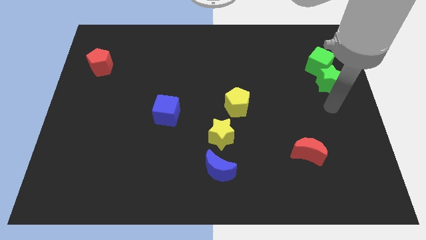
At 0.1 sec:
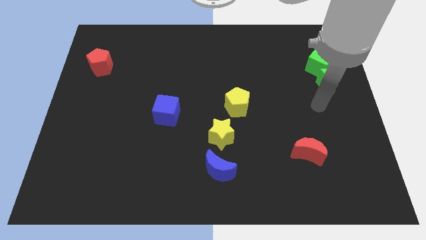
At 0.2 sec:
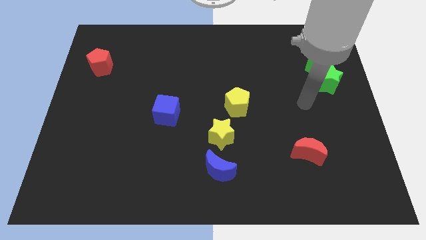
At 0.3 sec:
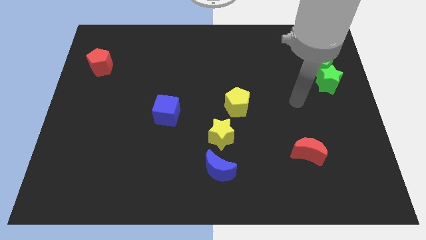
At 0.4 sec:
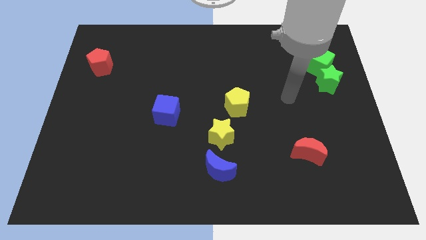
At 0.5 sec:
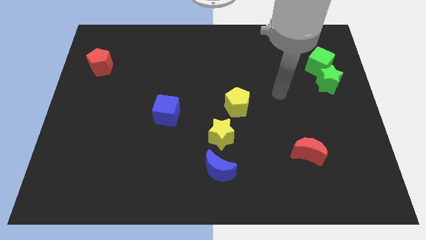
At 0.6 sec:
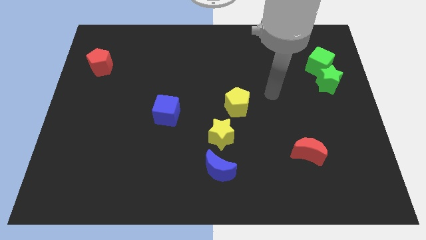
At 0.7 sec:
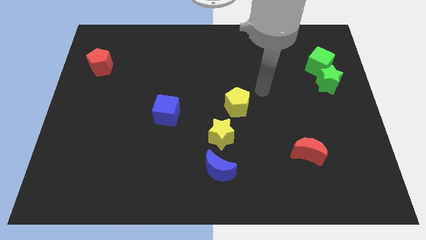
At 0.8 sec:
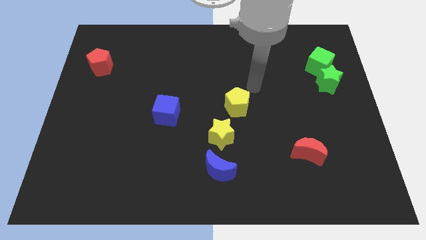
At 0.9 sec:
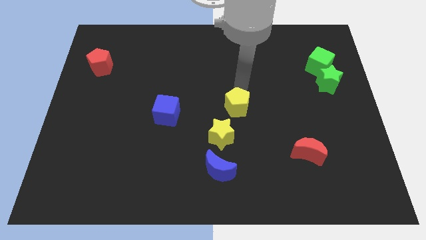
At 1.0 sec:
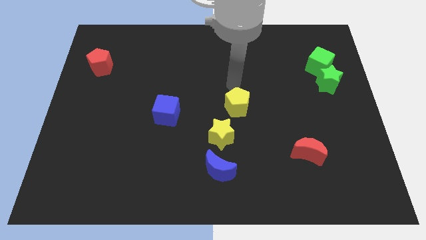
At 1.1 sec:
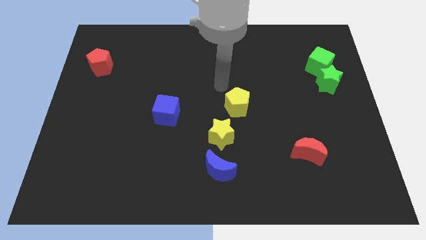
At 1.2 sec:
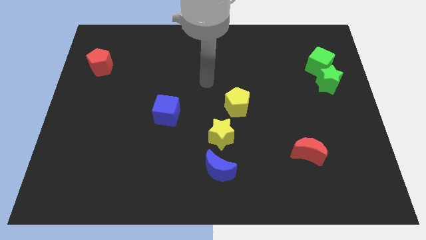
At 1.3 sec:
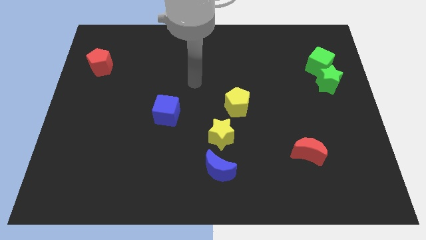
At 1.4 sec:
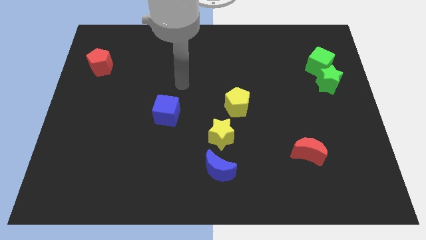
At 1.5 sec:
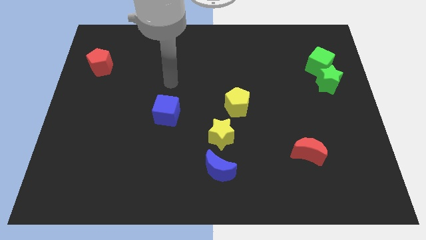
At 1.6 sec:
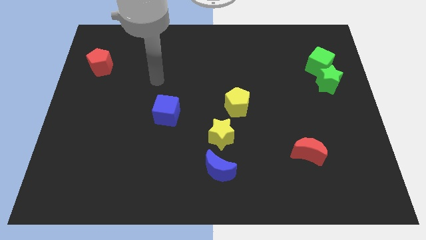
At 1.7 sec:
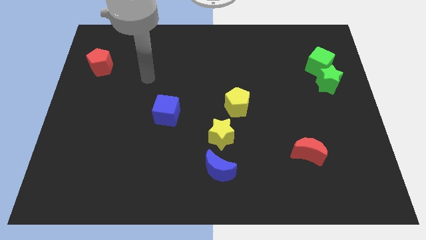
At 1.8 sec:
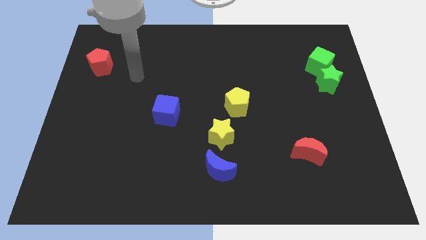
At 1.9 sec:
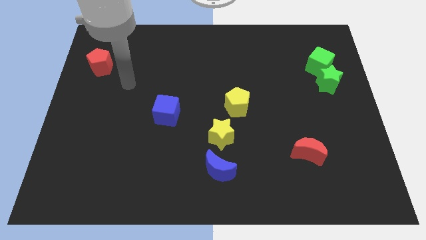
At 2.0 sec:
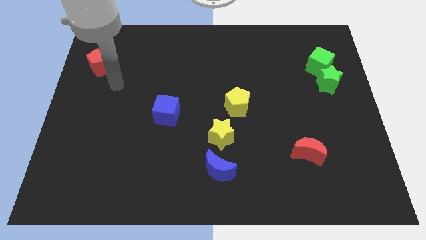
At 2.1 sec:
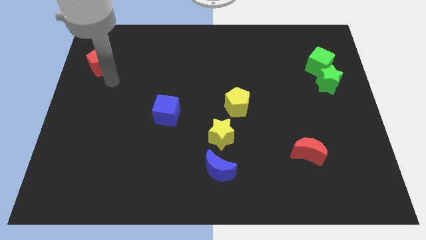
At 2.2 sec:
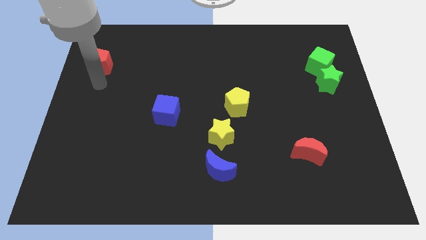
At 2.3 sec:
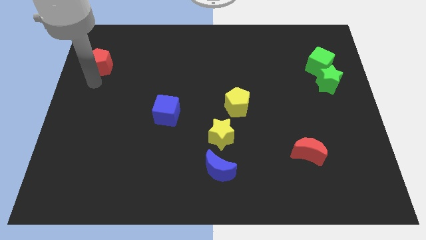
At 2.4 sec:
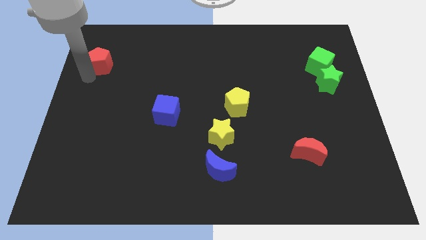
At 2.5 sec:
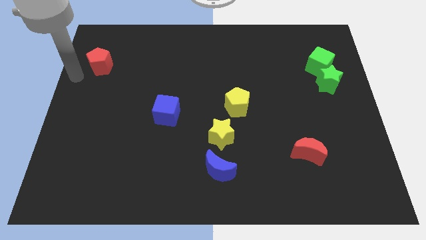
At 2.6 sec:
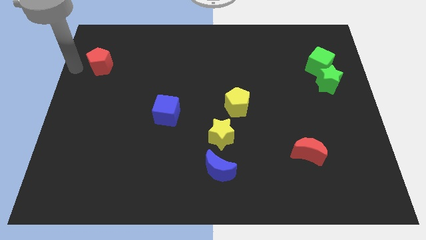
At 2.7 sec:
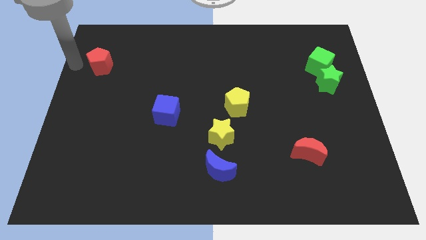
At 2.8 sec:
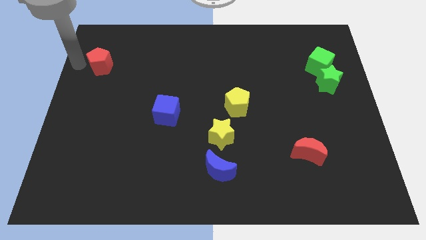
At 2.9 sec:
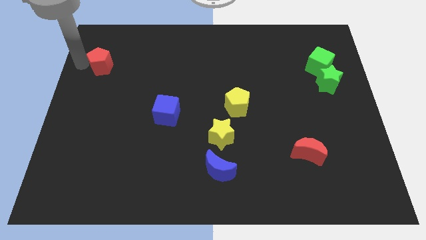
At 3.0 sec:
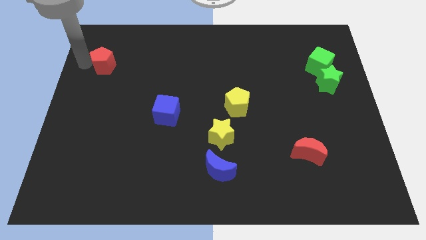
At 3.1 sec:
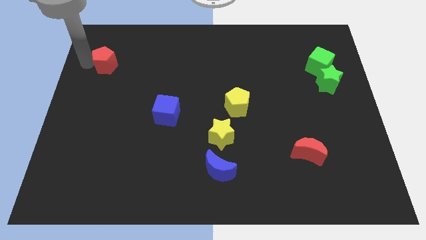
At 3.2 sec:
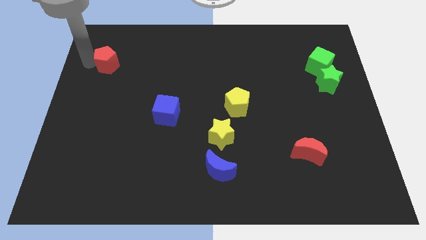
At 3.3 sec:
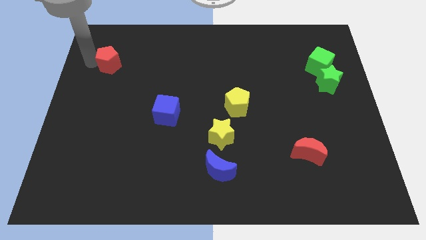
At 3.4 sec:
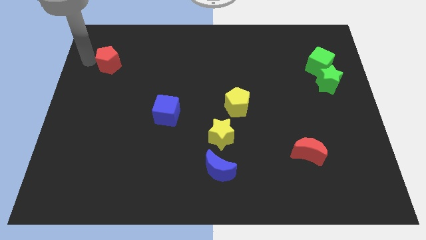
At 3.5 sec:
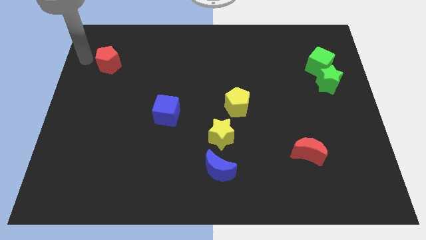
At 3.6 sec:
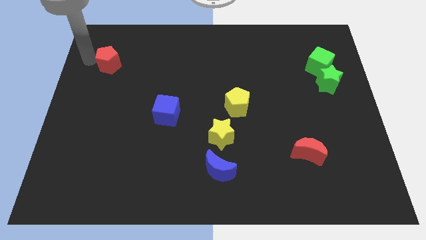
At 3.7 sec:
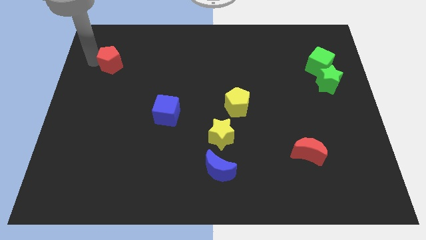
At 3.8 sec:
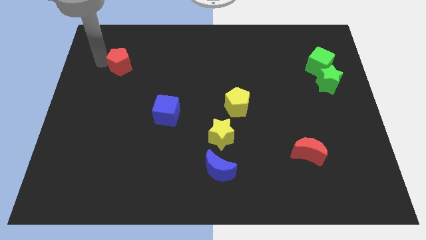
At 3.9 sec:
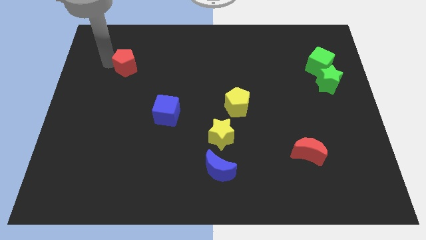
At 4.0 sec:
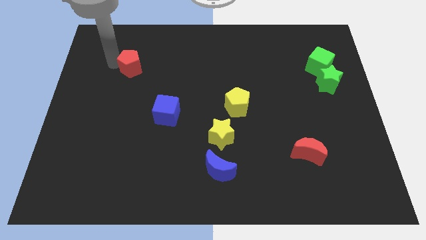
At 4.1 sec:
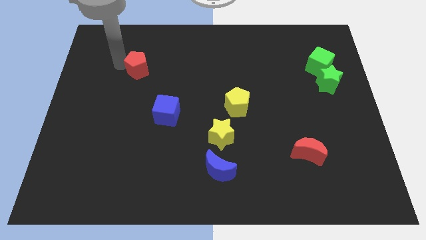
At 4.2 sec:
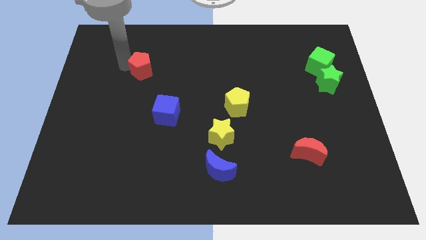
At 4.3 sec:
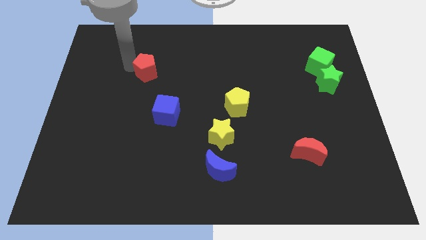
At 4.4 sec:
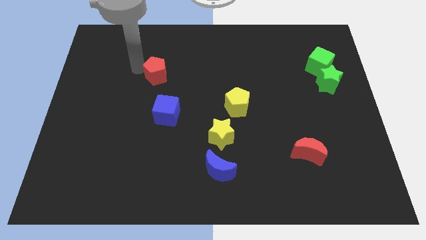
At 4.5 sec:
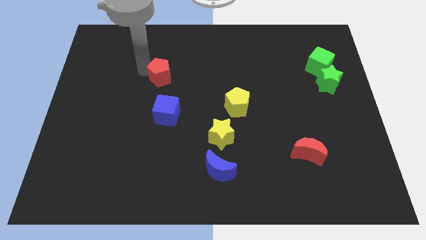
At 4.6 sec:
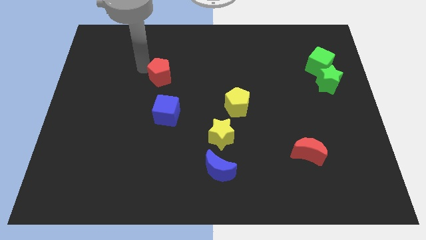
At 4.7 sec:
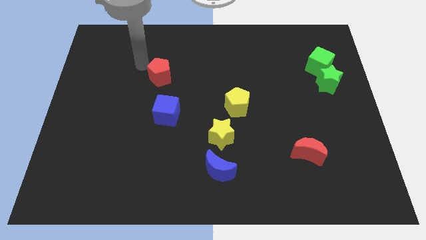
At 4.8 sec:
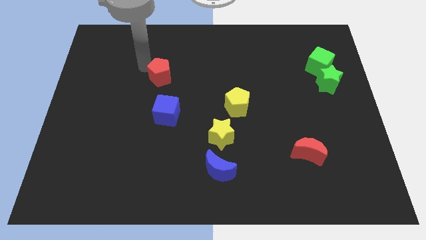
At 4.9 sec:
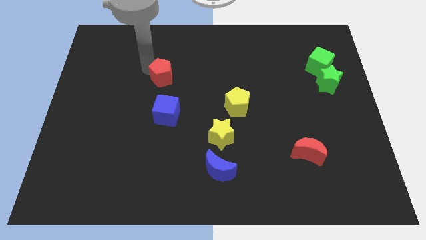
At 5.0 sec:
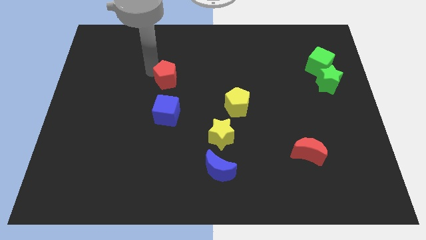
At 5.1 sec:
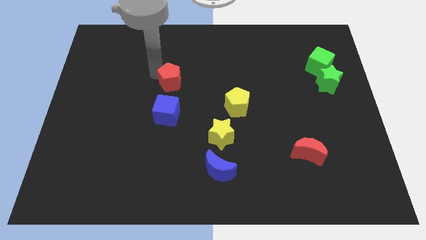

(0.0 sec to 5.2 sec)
push the red pentagon to the center of the board

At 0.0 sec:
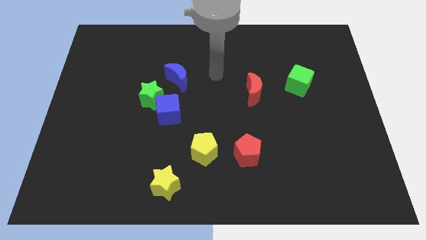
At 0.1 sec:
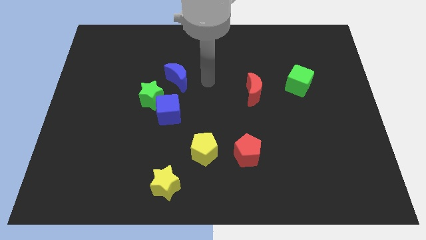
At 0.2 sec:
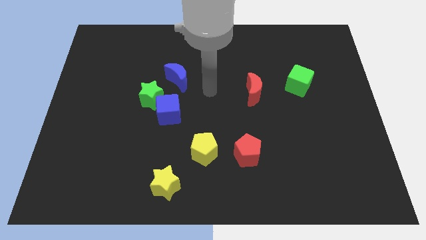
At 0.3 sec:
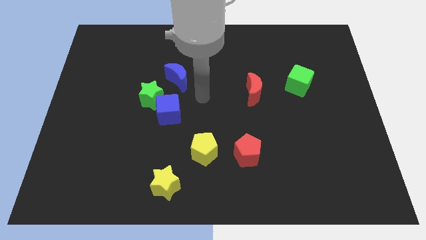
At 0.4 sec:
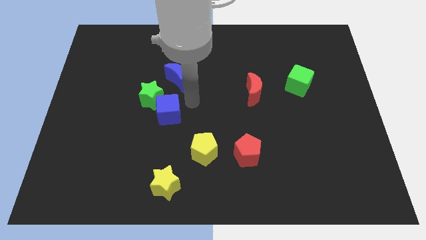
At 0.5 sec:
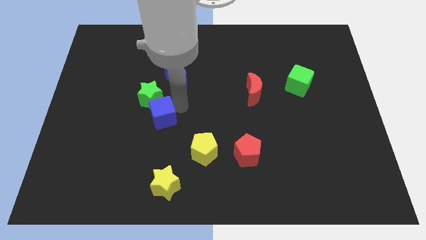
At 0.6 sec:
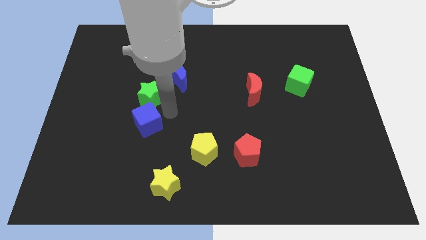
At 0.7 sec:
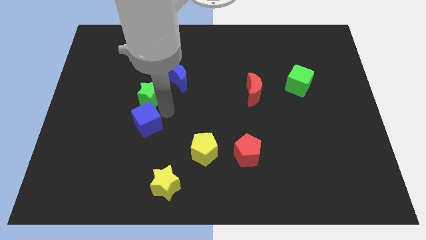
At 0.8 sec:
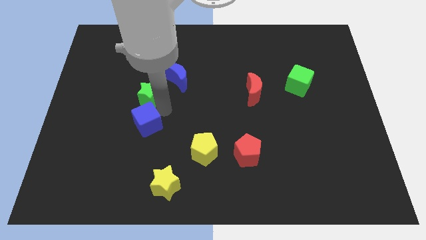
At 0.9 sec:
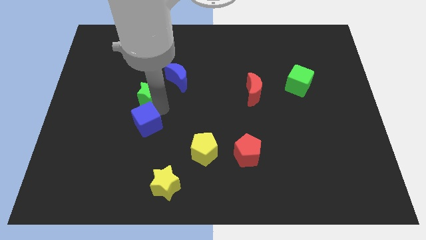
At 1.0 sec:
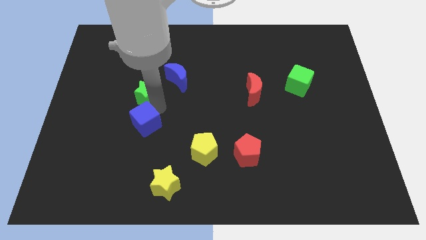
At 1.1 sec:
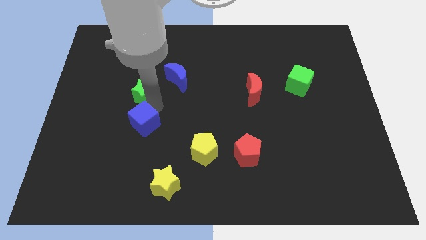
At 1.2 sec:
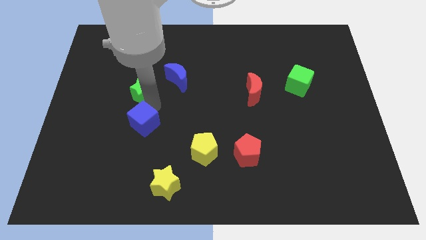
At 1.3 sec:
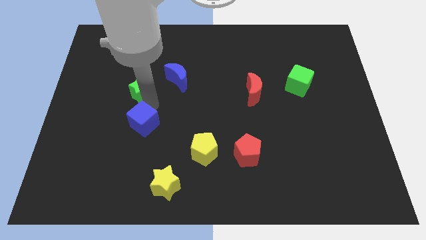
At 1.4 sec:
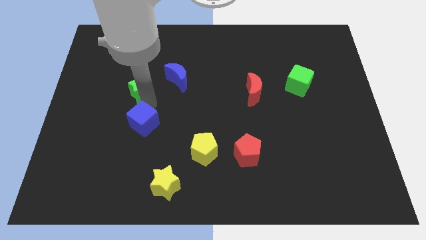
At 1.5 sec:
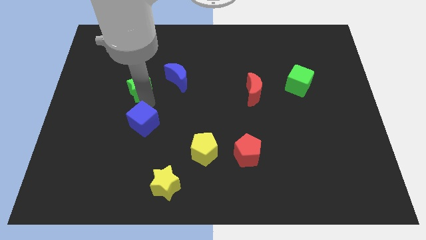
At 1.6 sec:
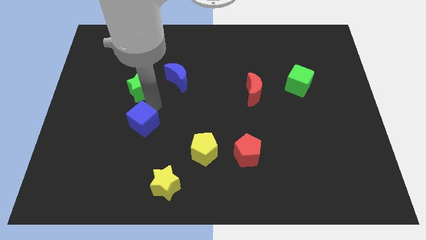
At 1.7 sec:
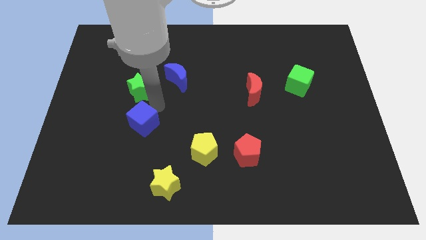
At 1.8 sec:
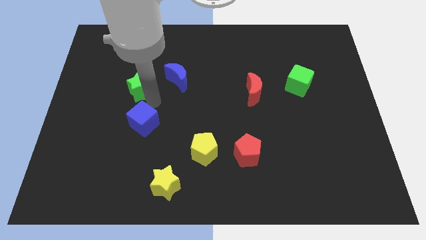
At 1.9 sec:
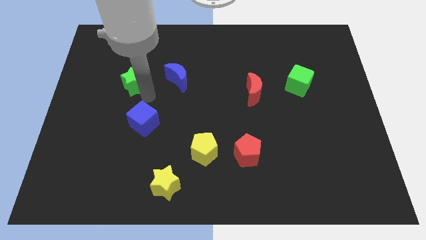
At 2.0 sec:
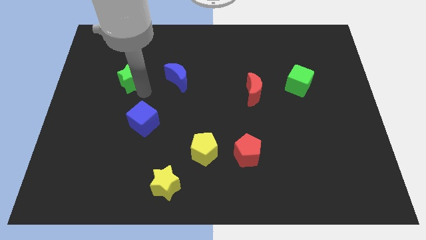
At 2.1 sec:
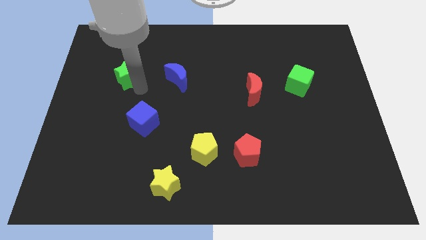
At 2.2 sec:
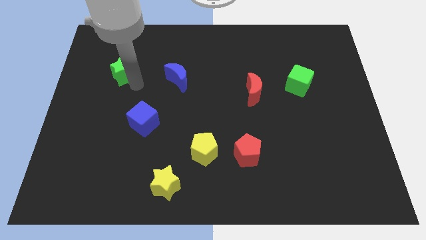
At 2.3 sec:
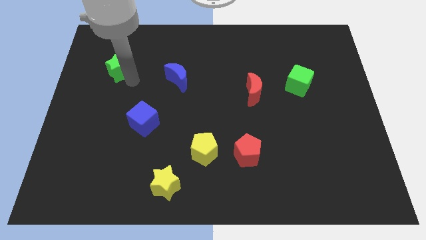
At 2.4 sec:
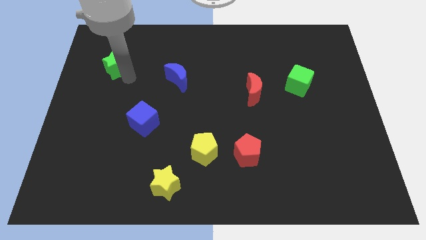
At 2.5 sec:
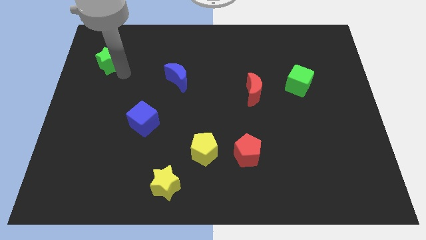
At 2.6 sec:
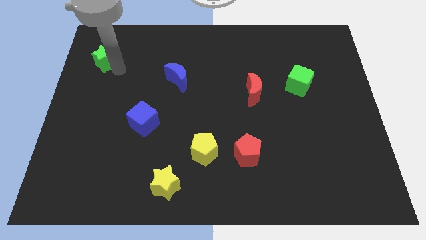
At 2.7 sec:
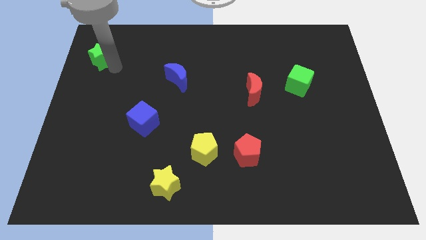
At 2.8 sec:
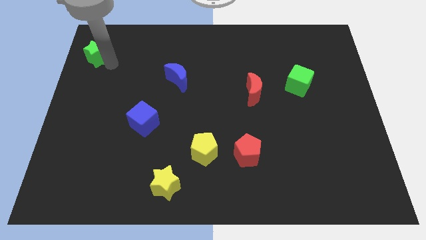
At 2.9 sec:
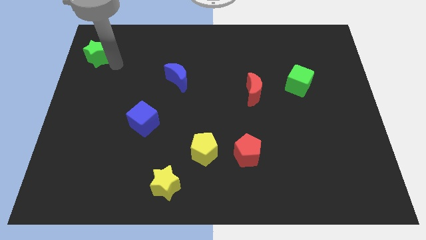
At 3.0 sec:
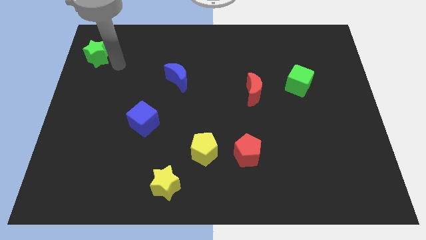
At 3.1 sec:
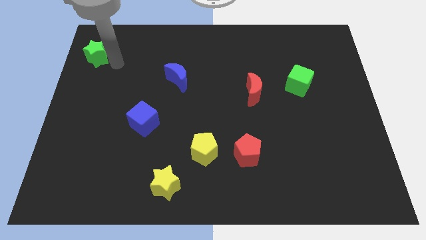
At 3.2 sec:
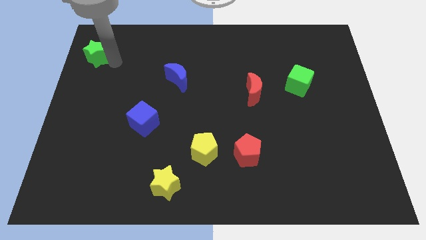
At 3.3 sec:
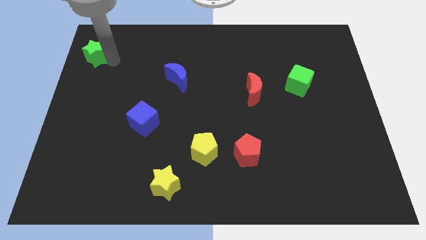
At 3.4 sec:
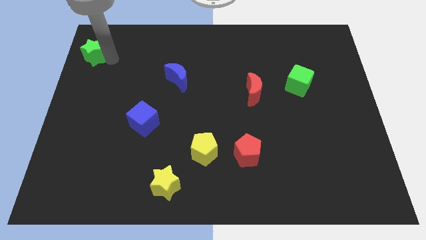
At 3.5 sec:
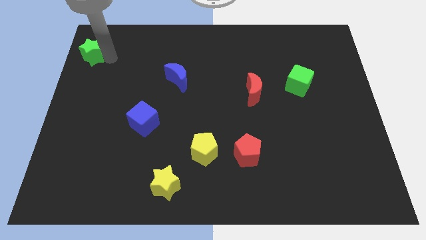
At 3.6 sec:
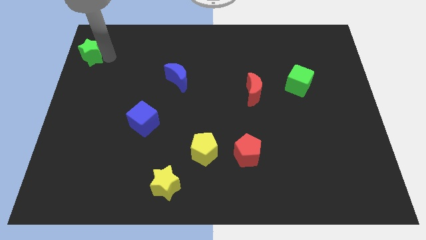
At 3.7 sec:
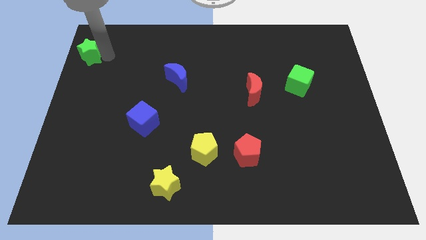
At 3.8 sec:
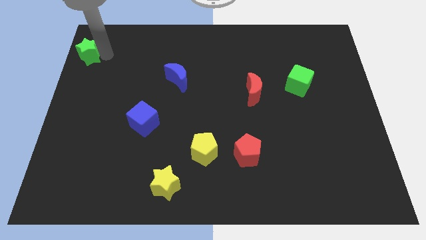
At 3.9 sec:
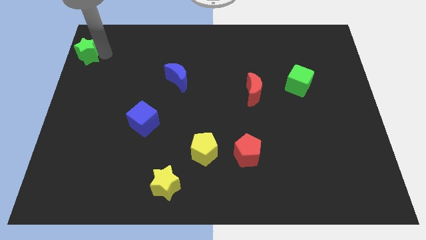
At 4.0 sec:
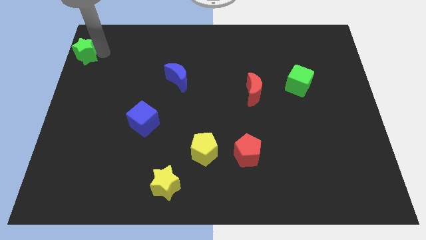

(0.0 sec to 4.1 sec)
slide the green star to the top left of the board
